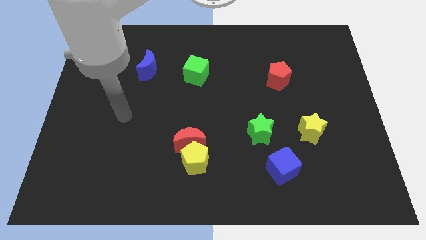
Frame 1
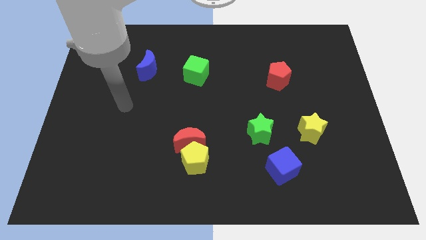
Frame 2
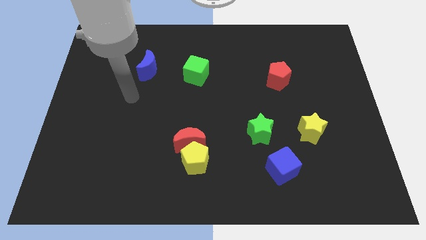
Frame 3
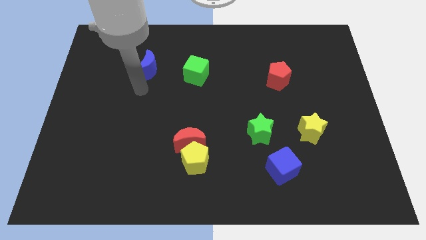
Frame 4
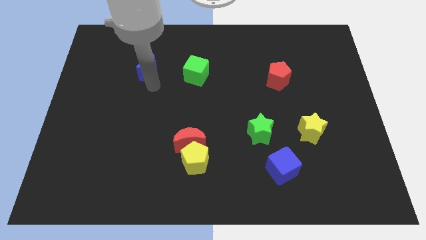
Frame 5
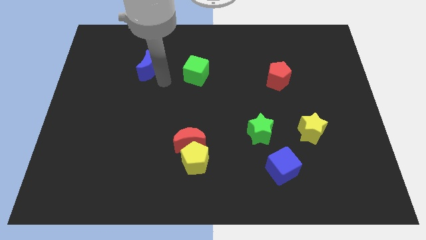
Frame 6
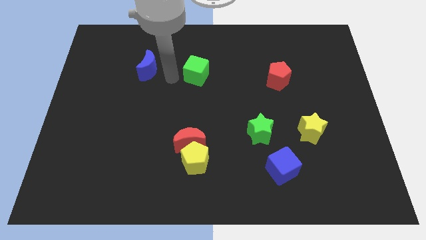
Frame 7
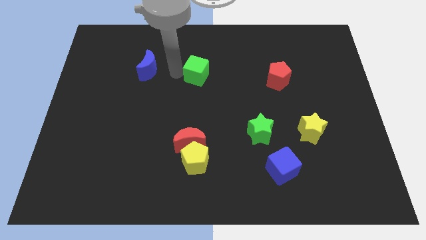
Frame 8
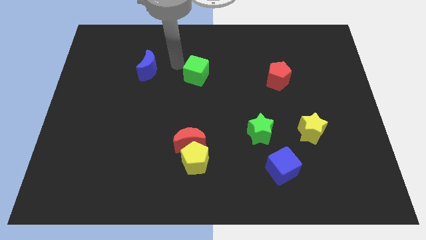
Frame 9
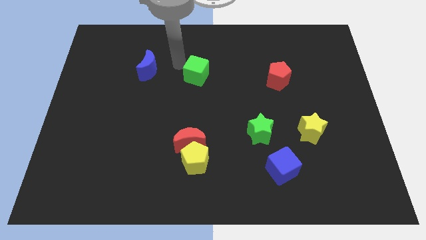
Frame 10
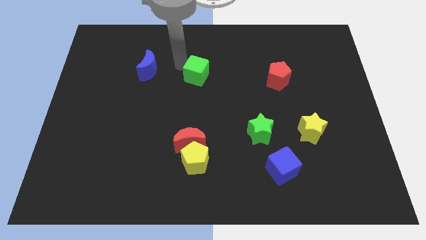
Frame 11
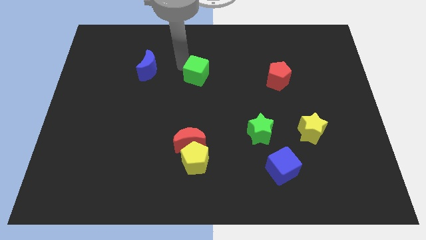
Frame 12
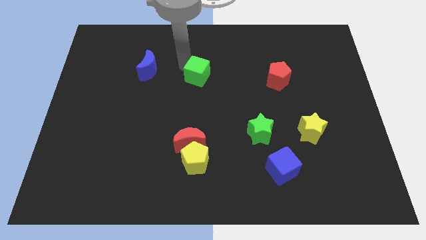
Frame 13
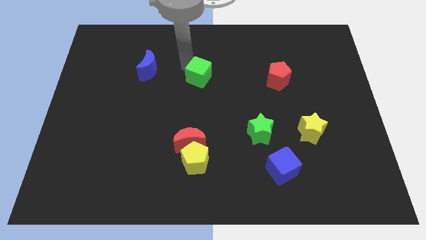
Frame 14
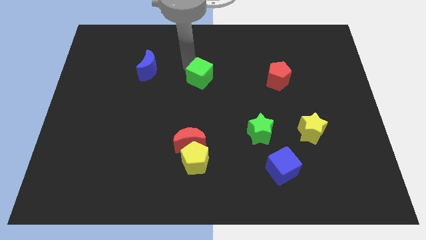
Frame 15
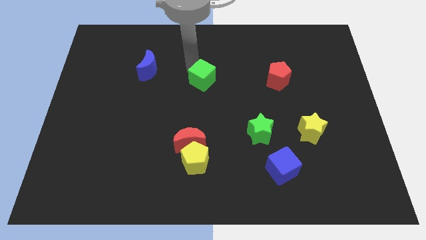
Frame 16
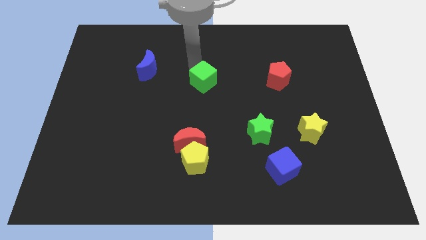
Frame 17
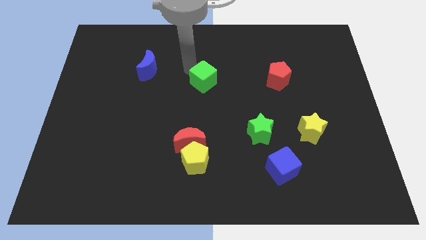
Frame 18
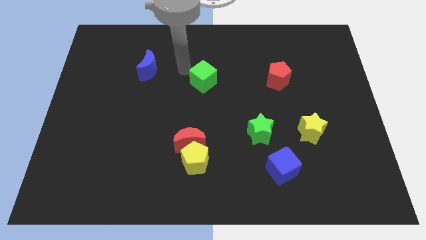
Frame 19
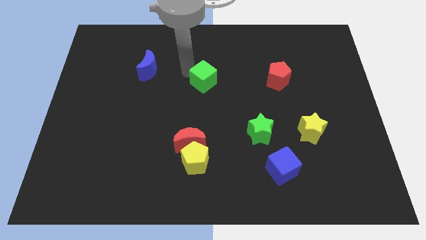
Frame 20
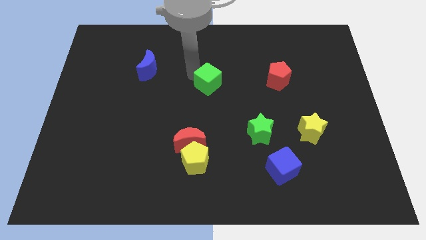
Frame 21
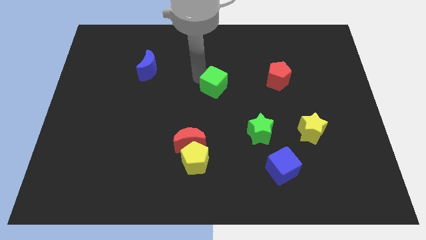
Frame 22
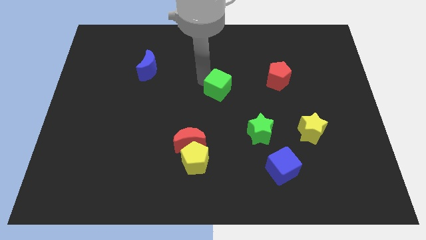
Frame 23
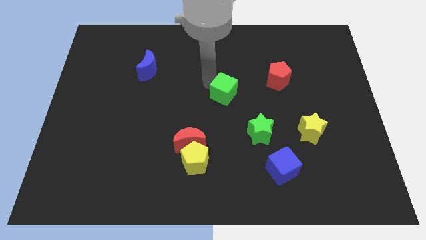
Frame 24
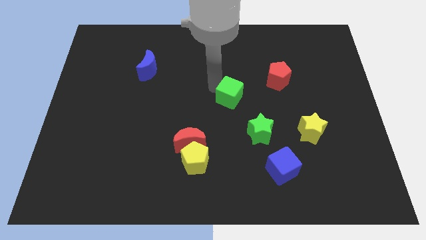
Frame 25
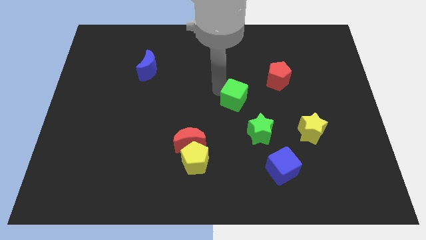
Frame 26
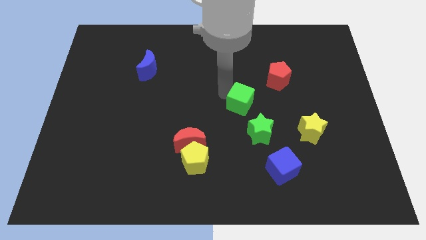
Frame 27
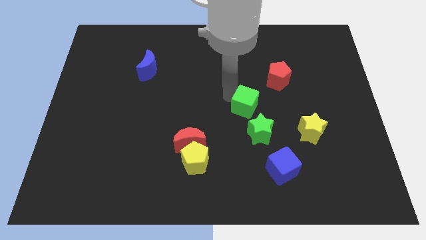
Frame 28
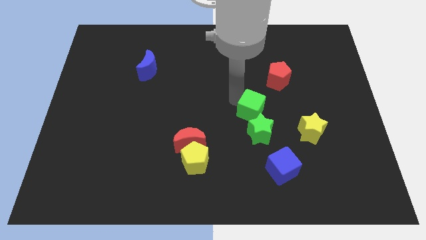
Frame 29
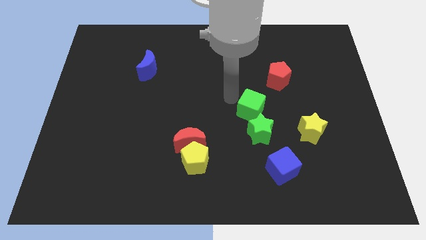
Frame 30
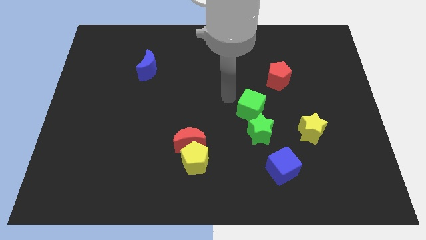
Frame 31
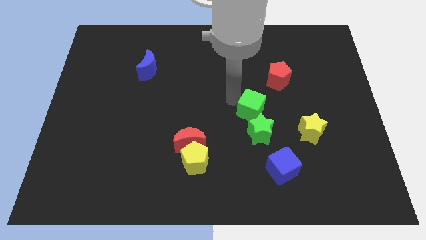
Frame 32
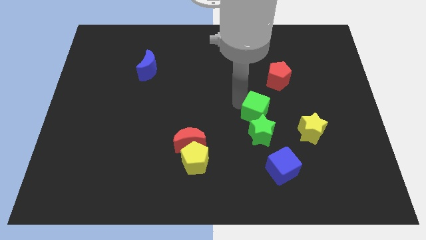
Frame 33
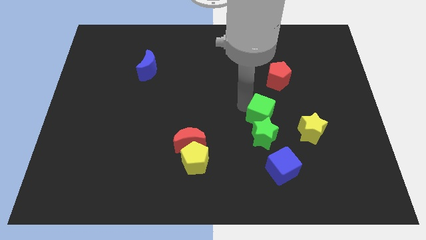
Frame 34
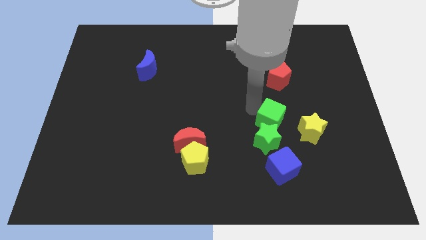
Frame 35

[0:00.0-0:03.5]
move the green cube diagonally down and right

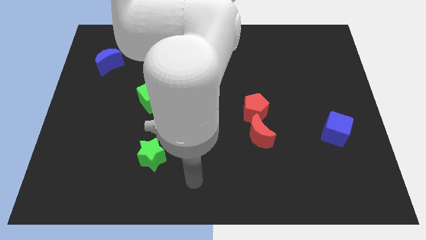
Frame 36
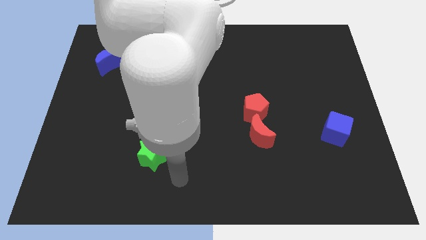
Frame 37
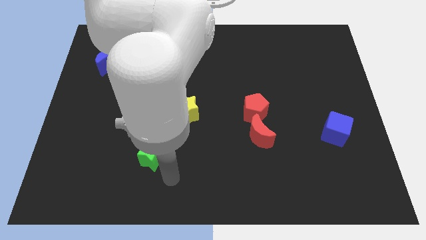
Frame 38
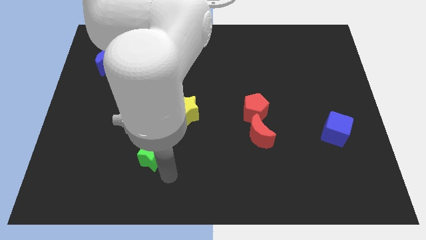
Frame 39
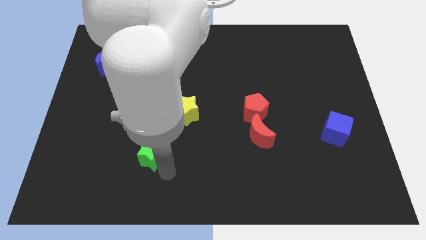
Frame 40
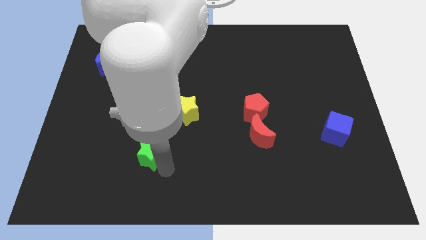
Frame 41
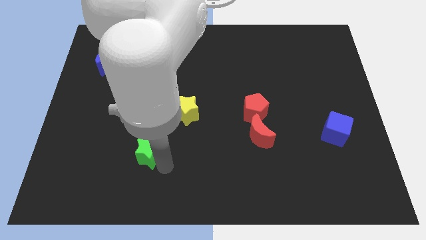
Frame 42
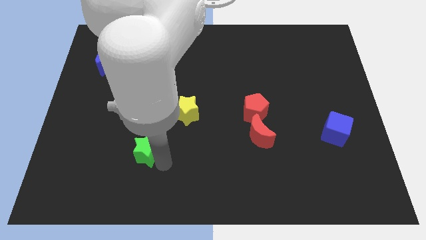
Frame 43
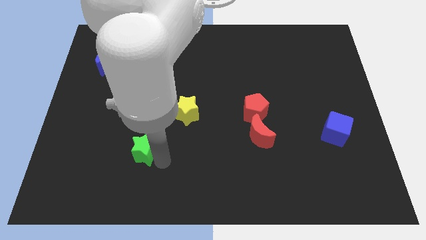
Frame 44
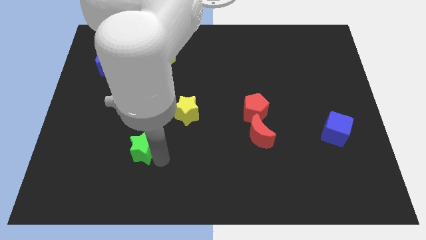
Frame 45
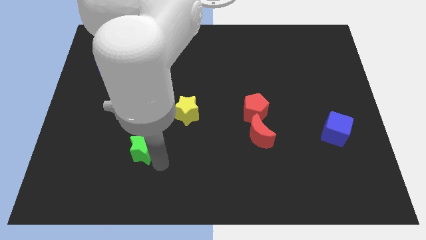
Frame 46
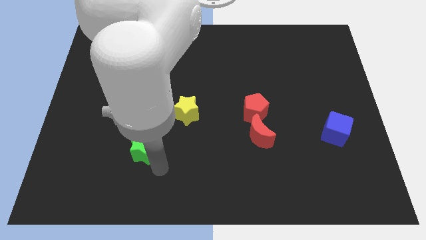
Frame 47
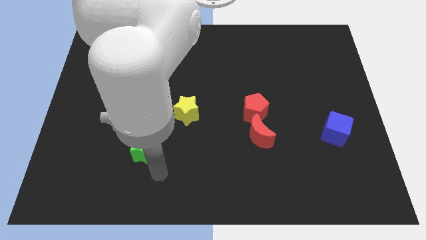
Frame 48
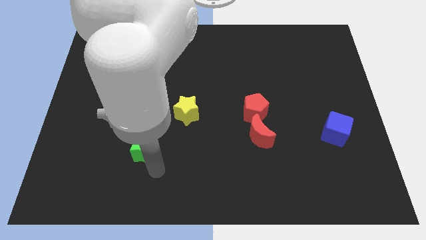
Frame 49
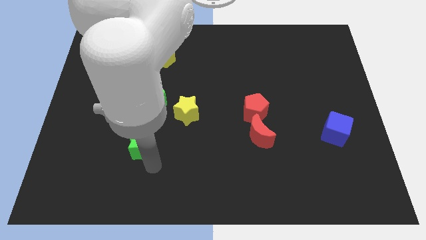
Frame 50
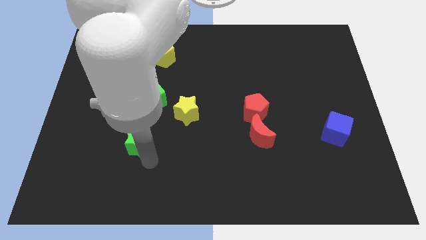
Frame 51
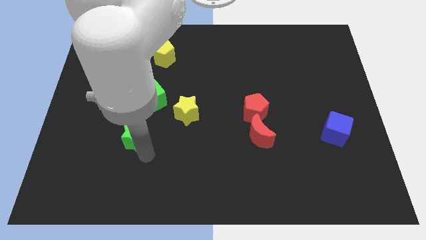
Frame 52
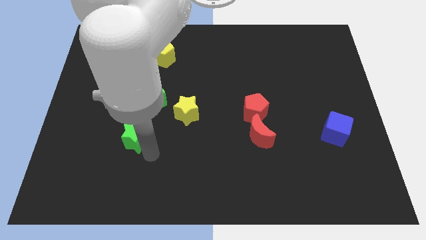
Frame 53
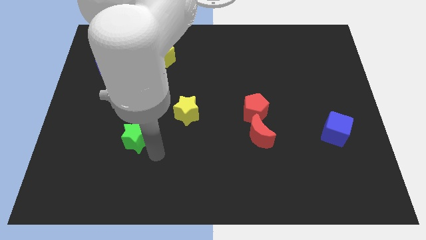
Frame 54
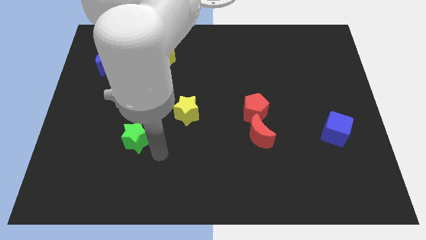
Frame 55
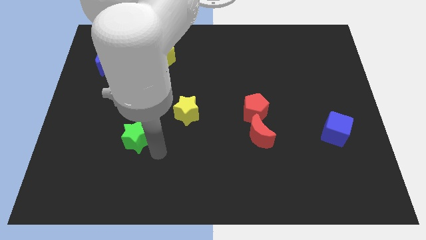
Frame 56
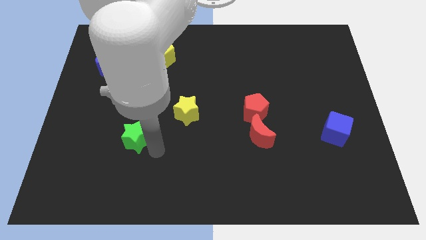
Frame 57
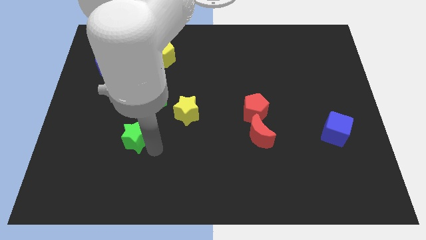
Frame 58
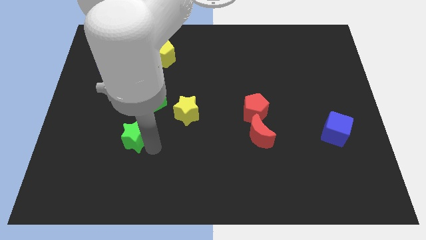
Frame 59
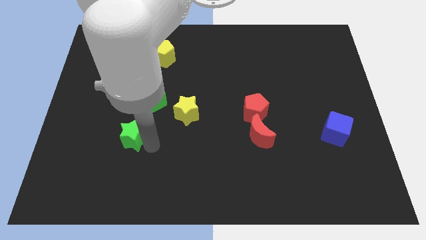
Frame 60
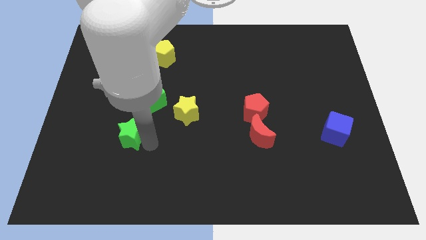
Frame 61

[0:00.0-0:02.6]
move the green star diagonally upwards and left slightly

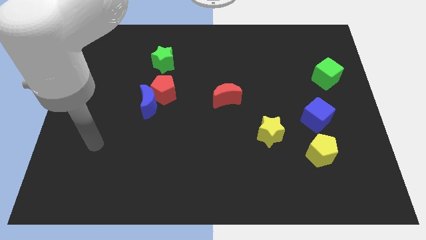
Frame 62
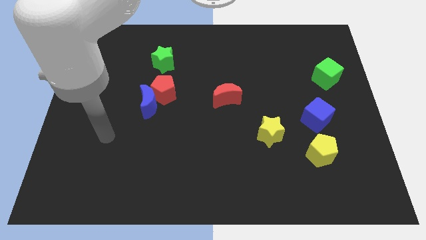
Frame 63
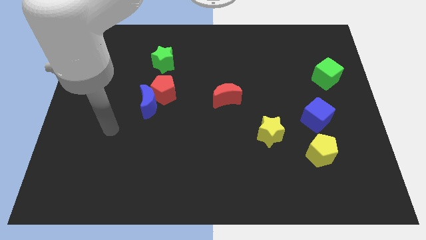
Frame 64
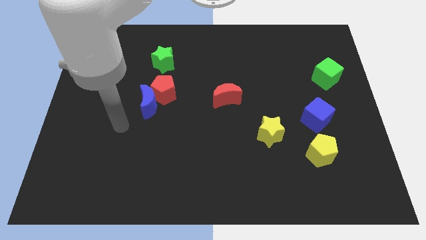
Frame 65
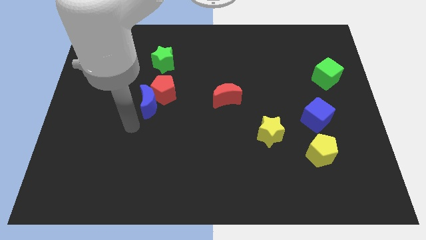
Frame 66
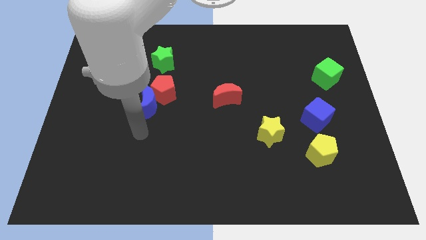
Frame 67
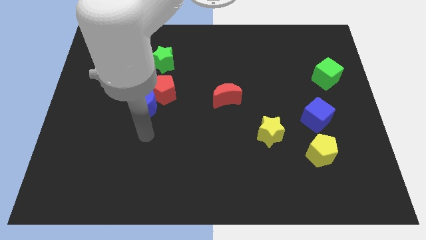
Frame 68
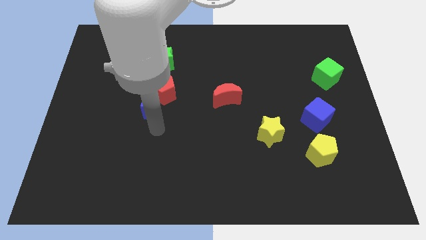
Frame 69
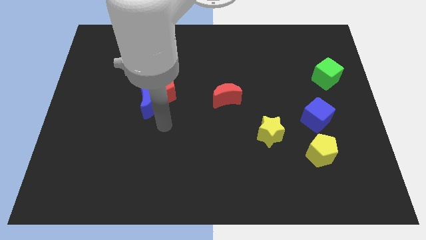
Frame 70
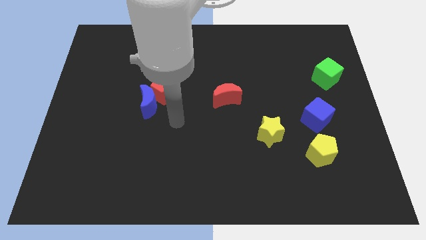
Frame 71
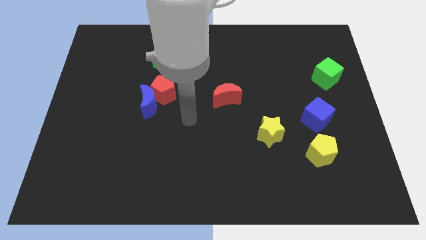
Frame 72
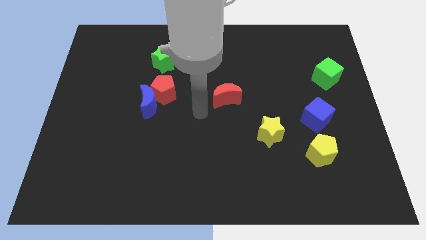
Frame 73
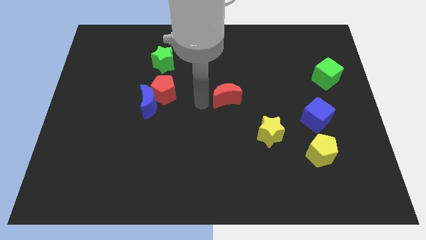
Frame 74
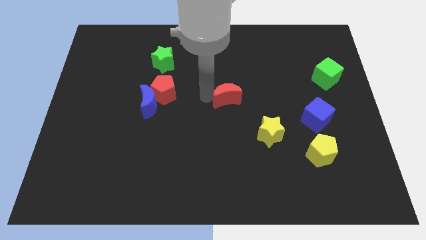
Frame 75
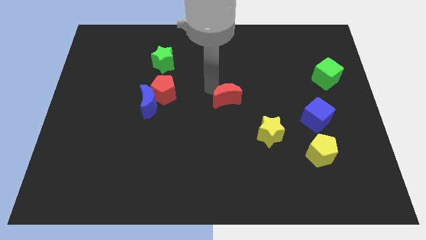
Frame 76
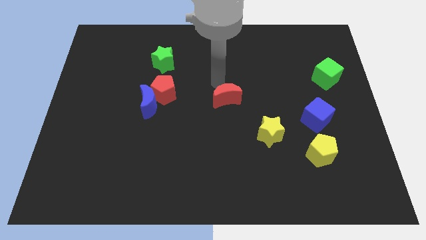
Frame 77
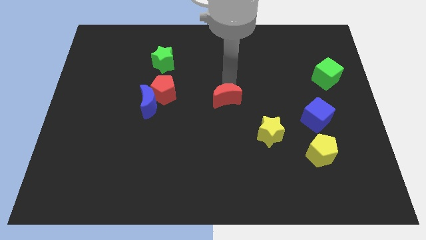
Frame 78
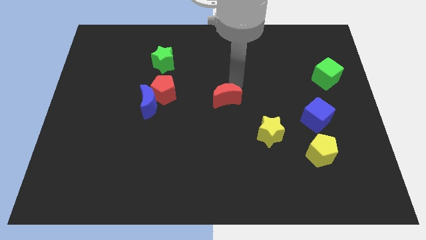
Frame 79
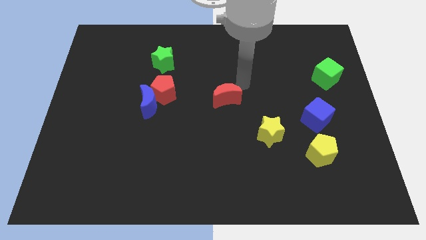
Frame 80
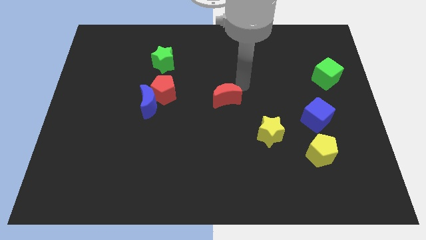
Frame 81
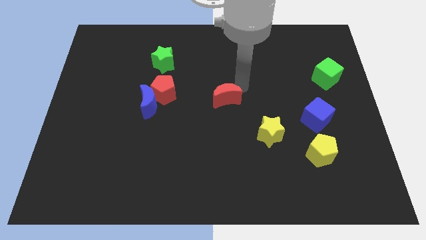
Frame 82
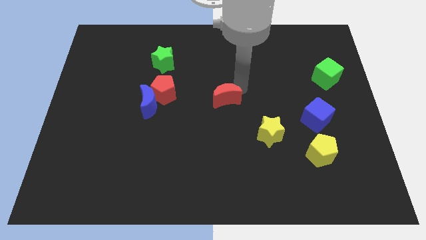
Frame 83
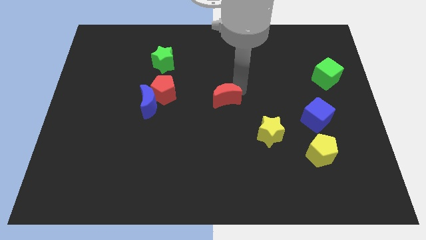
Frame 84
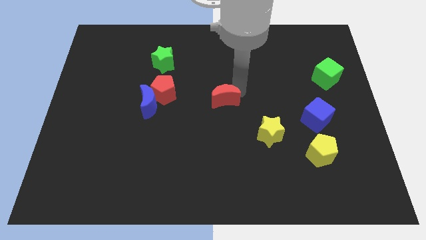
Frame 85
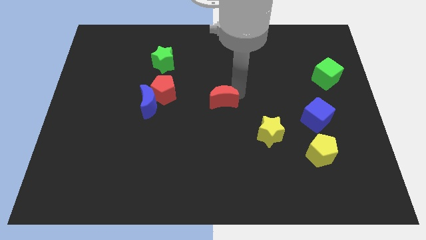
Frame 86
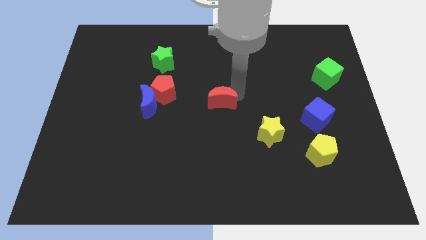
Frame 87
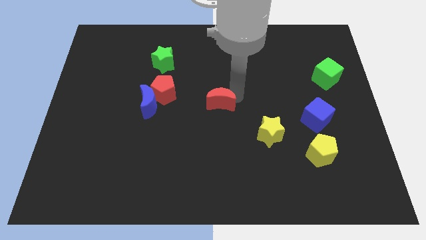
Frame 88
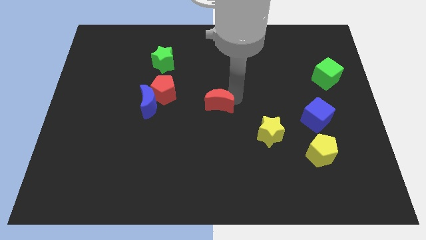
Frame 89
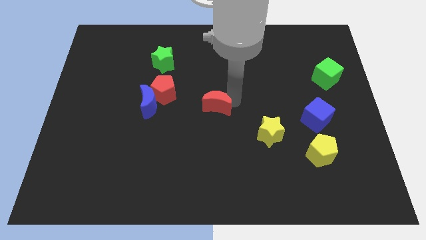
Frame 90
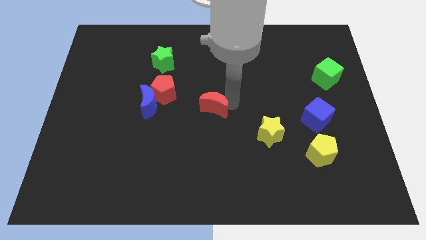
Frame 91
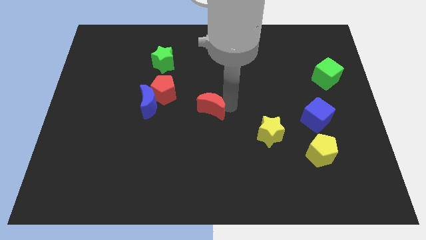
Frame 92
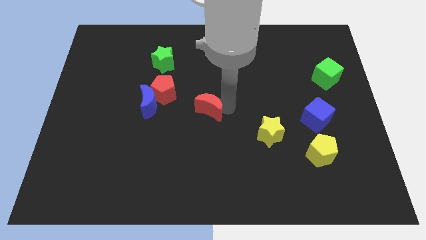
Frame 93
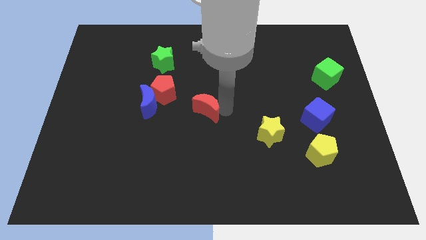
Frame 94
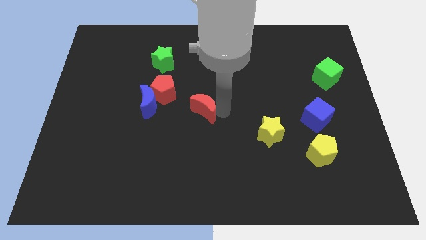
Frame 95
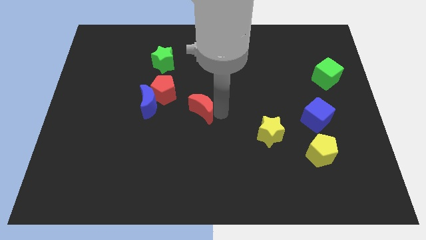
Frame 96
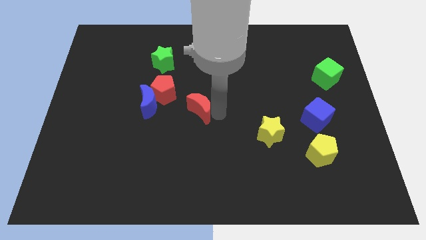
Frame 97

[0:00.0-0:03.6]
push the red moon diagonally downwards and left a little
